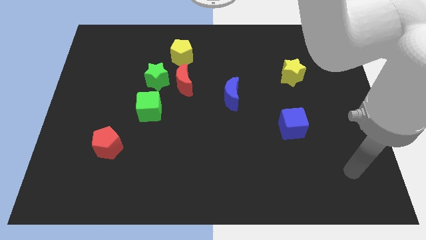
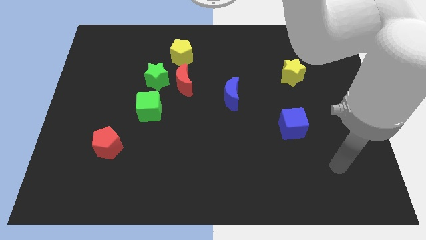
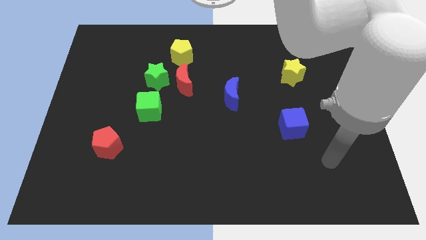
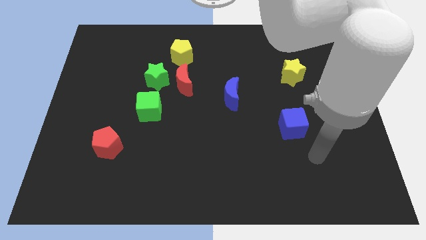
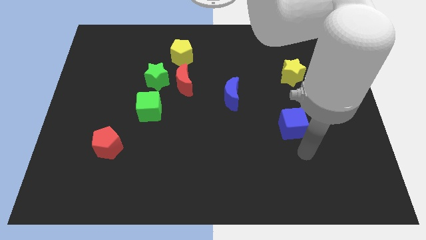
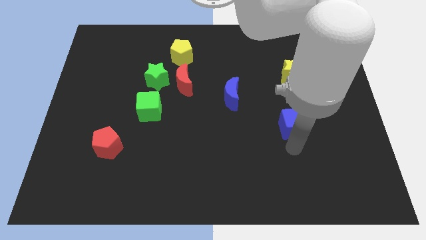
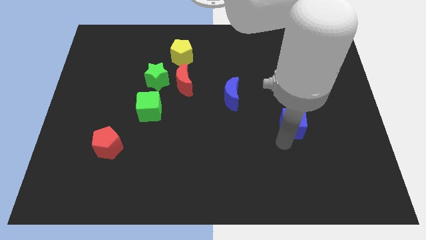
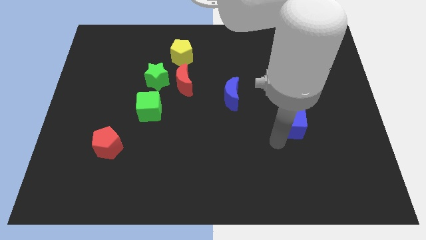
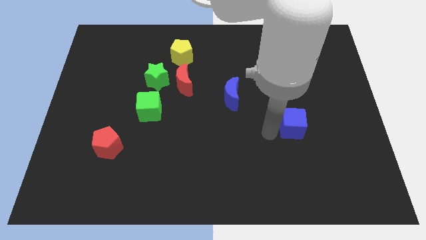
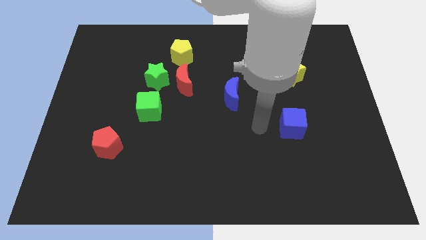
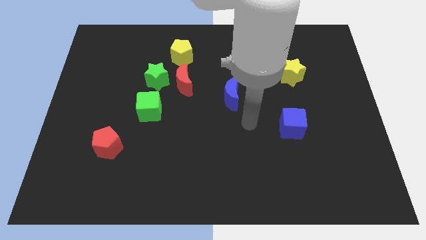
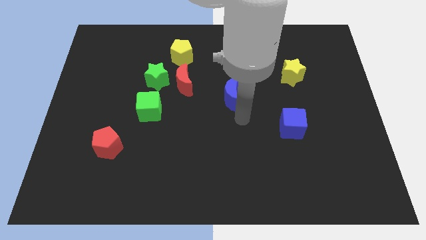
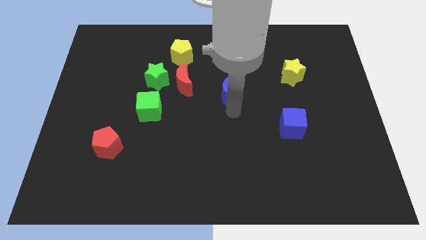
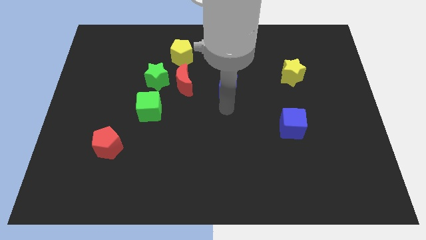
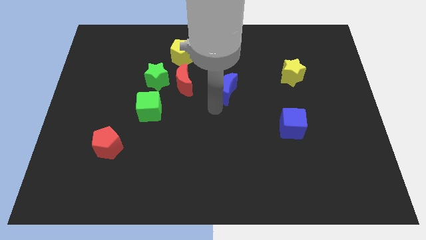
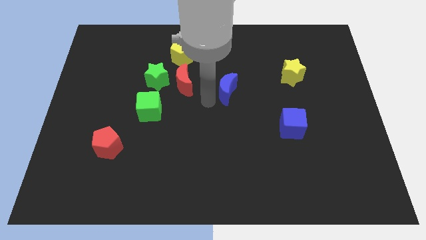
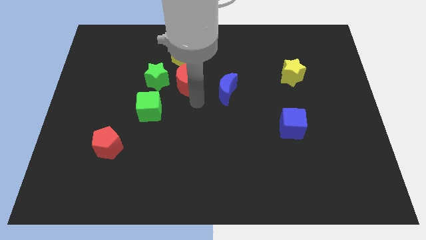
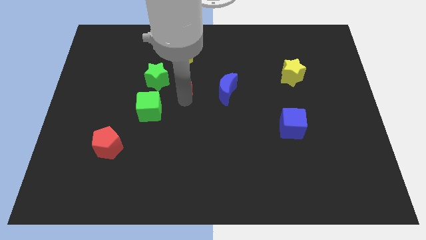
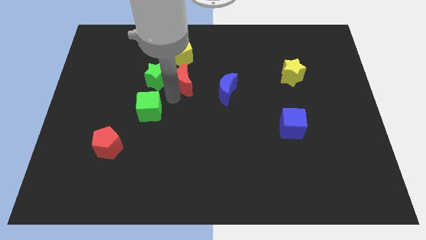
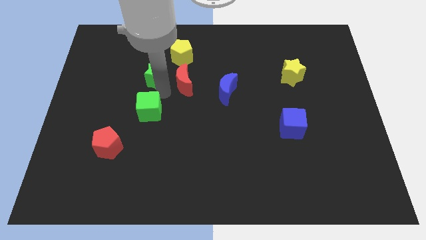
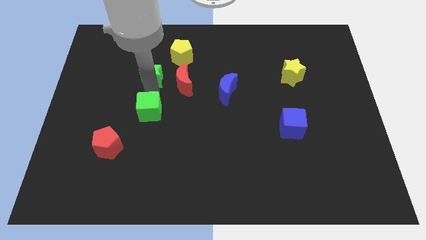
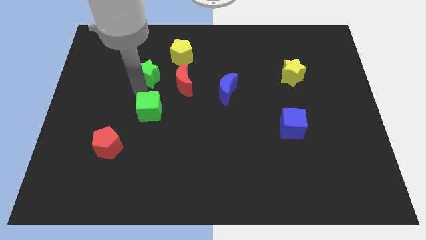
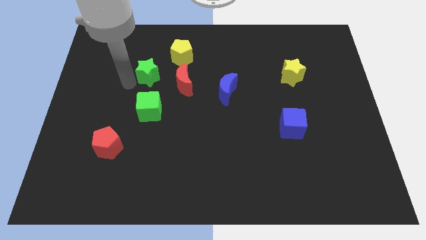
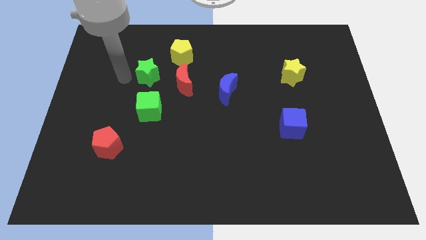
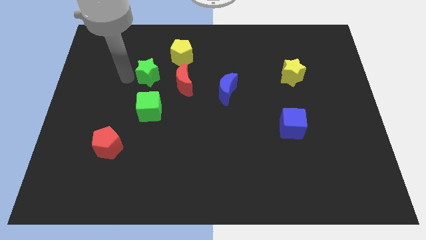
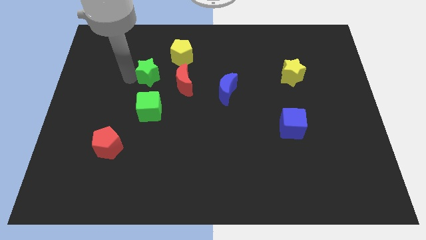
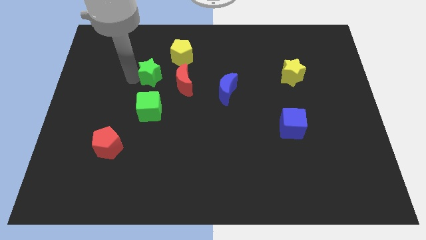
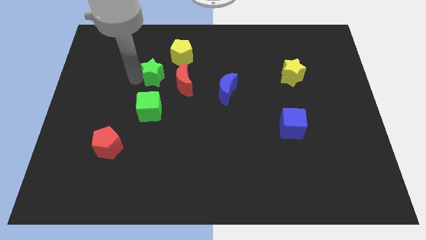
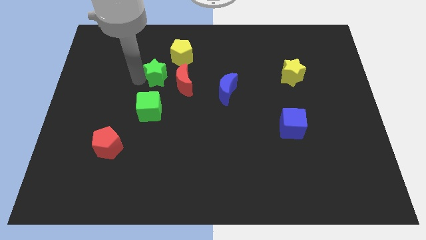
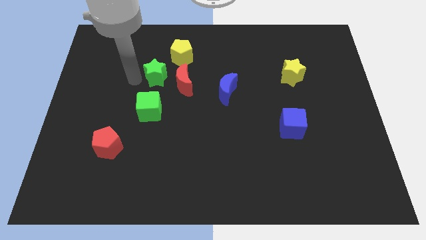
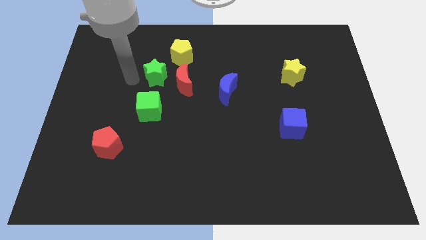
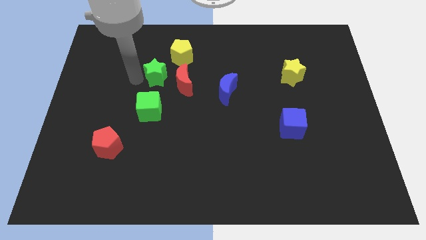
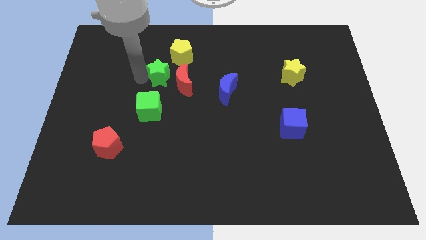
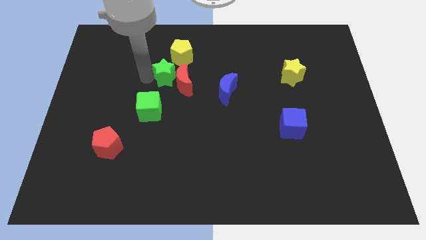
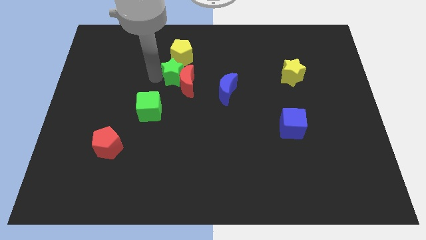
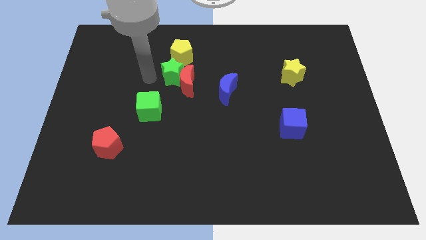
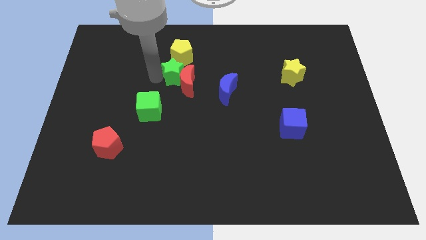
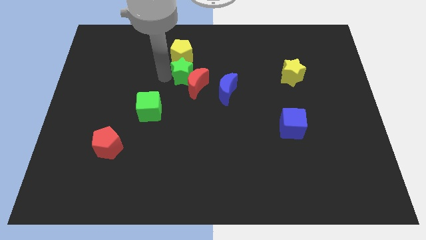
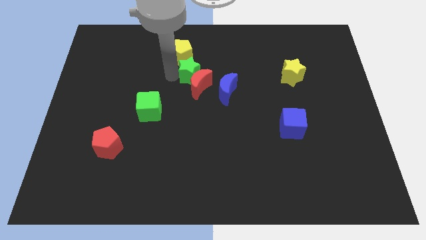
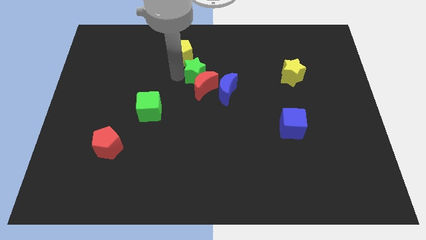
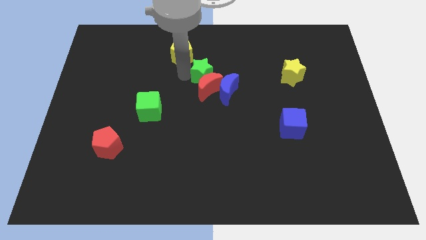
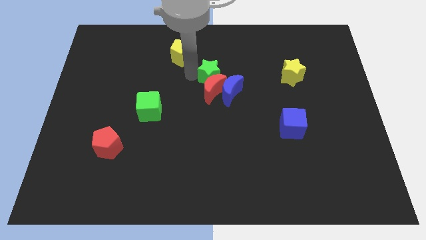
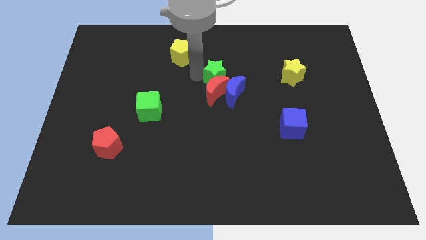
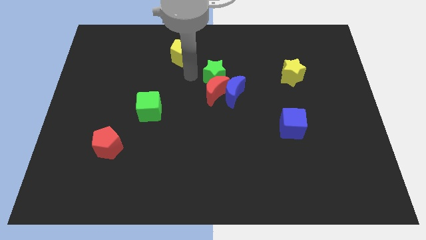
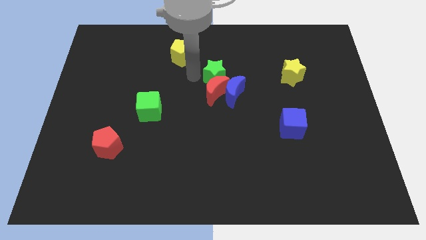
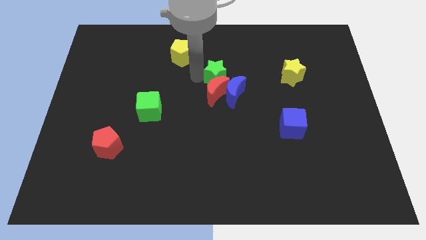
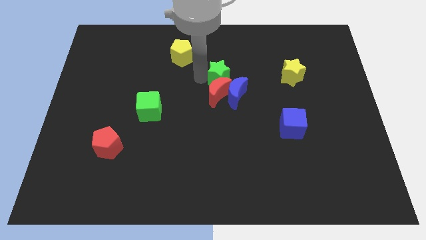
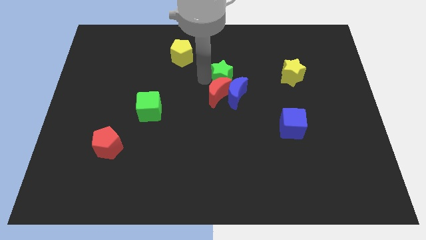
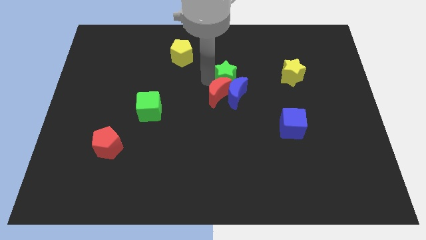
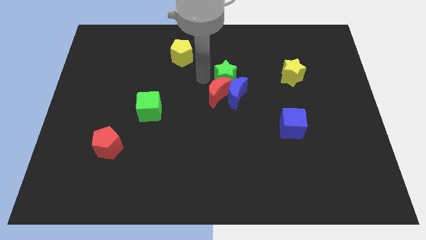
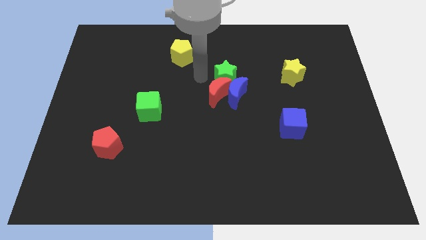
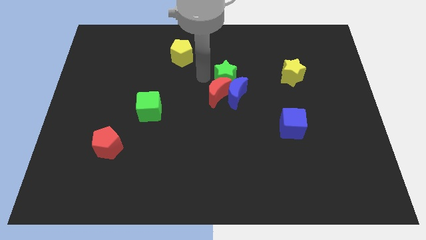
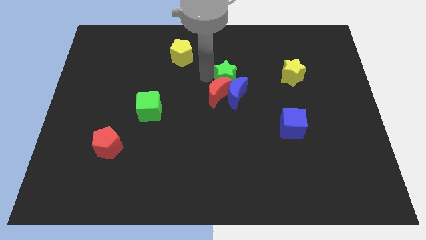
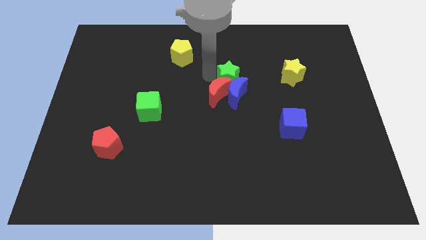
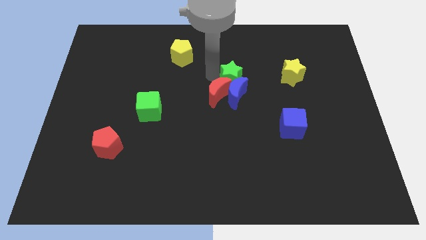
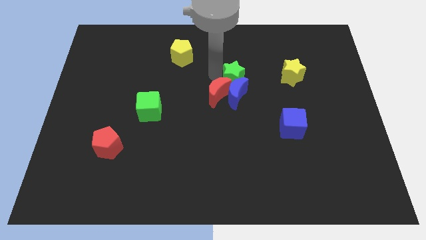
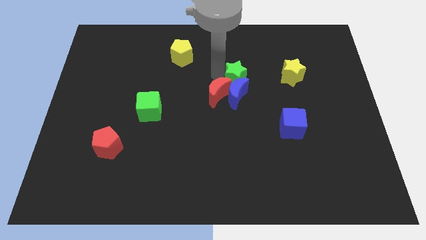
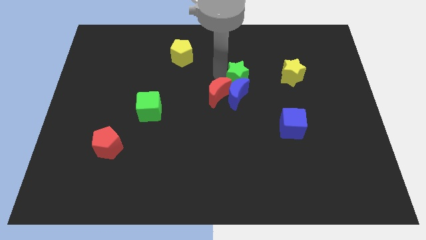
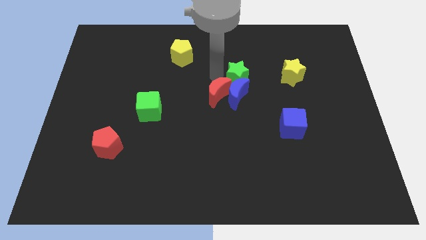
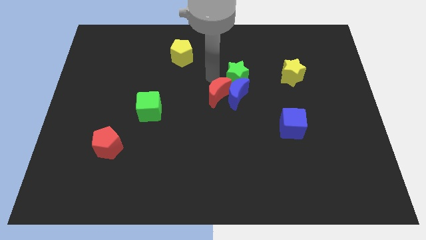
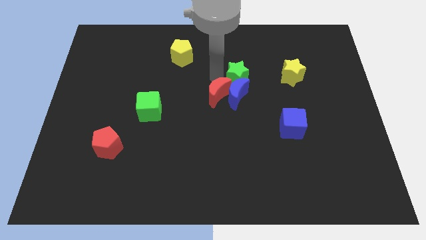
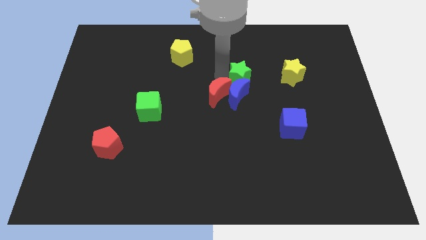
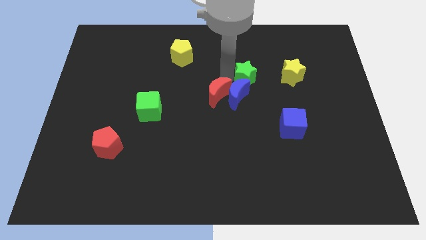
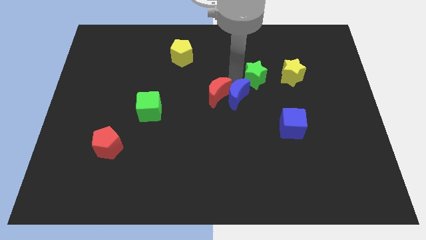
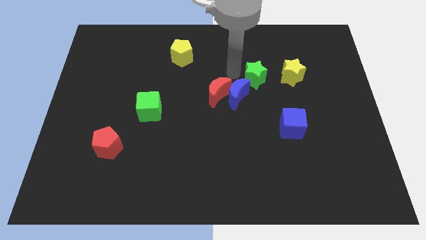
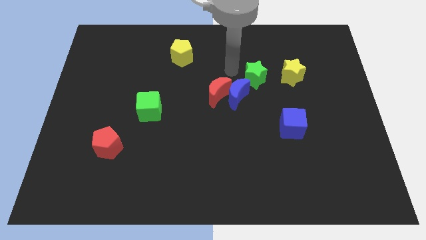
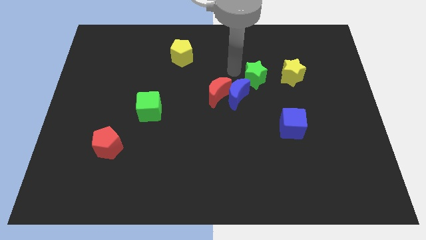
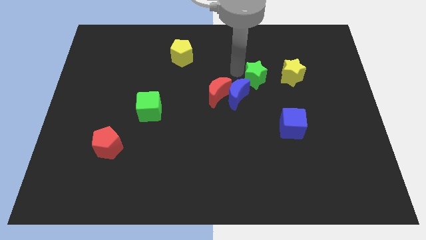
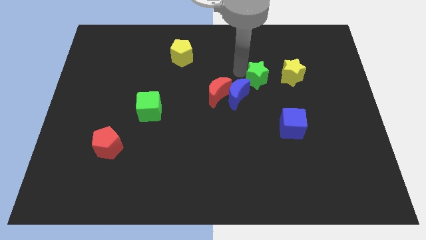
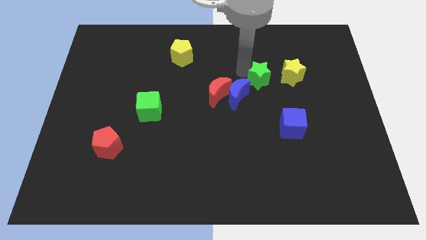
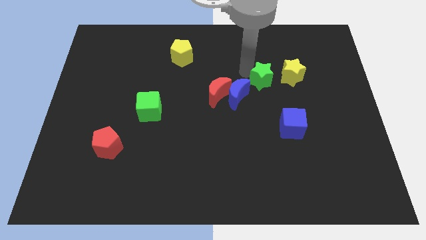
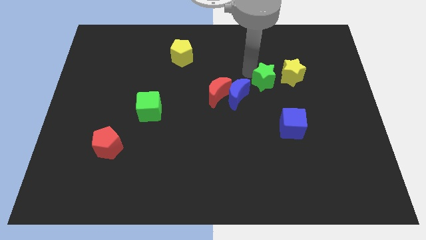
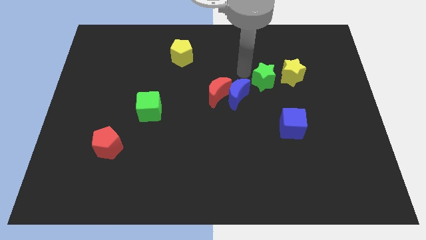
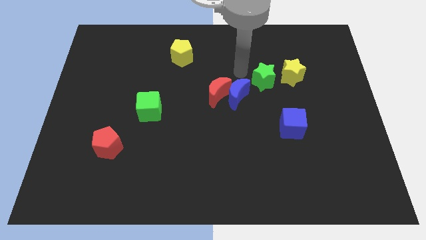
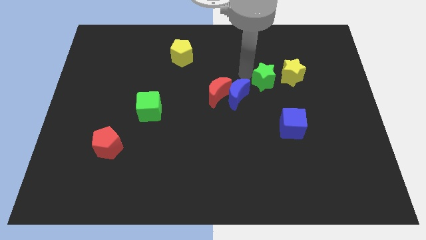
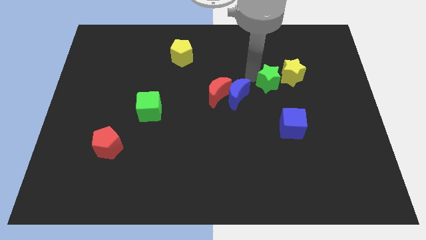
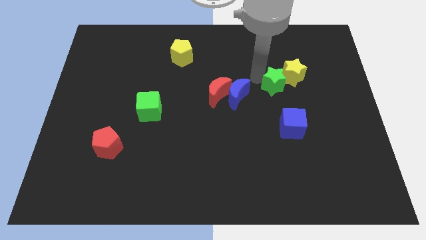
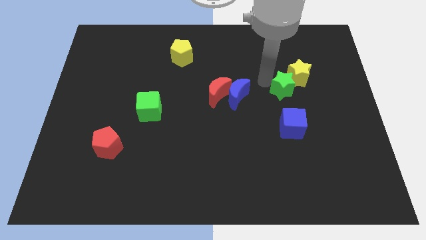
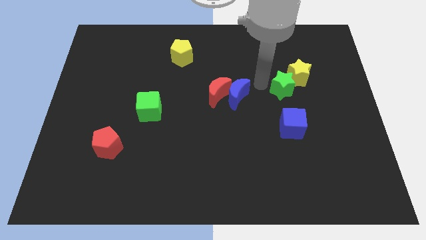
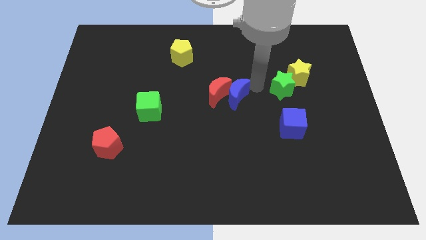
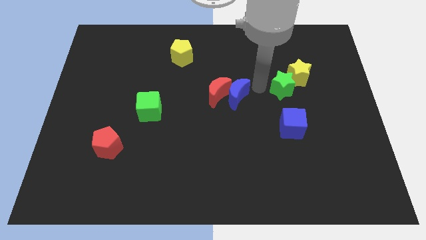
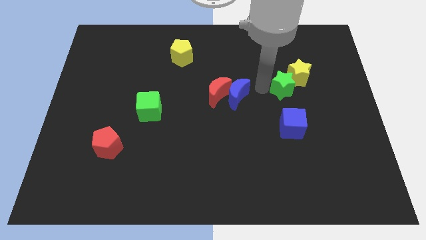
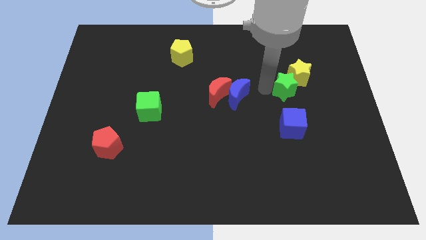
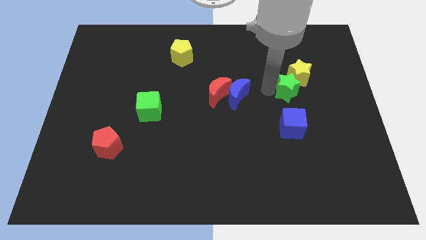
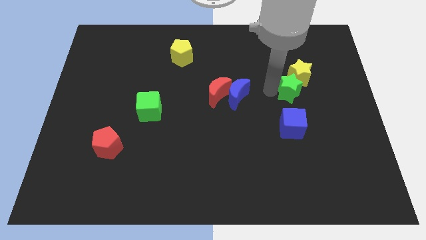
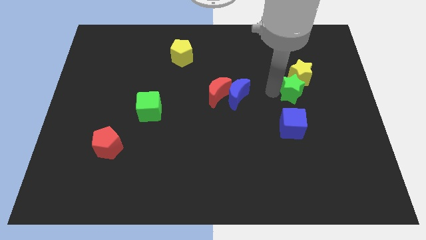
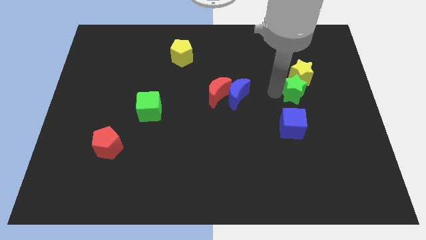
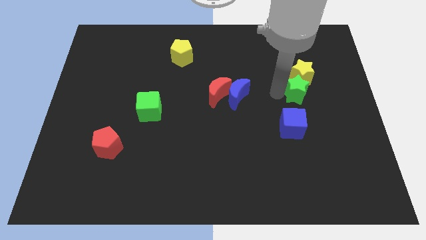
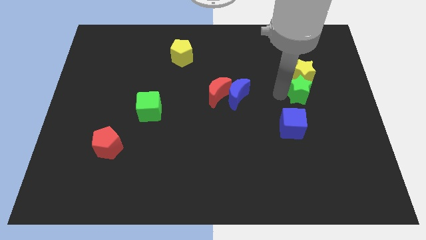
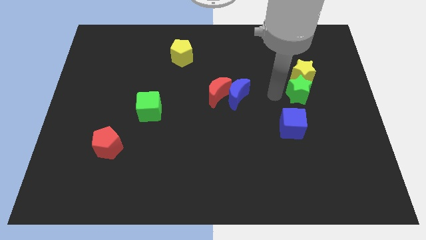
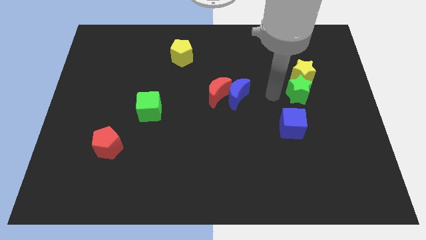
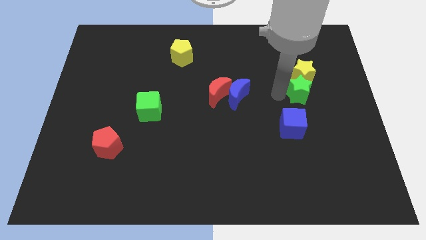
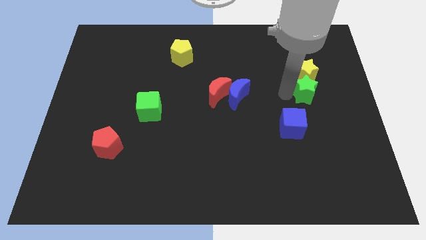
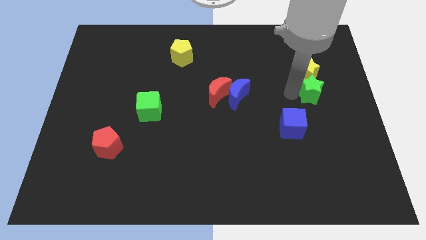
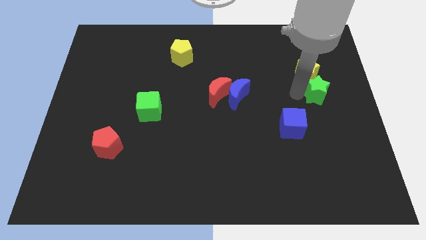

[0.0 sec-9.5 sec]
push the green star to the center right
